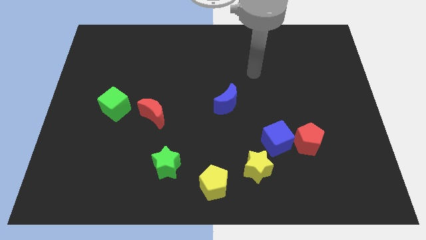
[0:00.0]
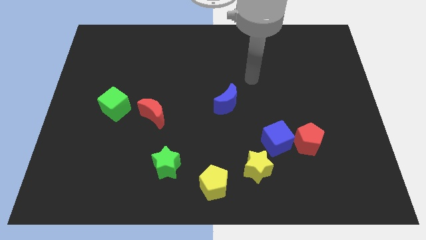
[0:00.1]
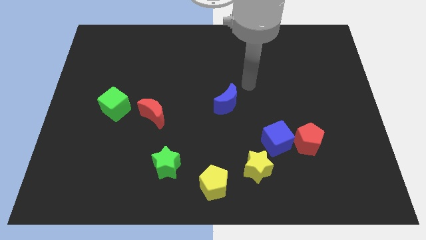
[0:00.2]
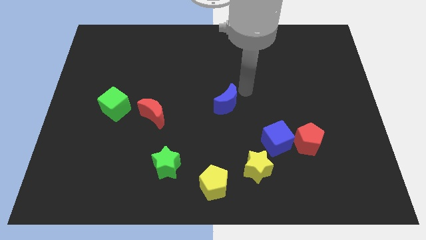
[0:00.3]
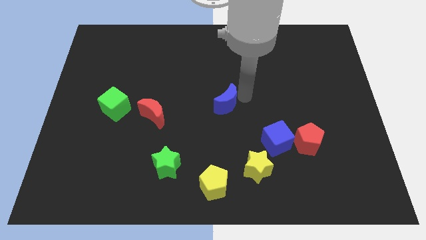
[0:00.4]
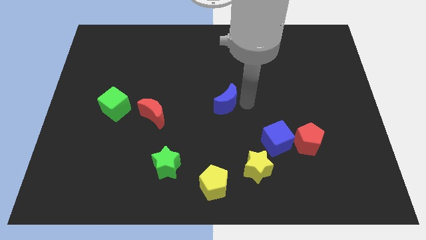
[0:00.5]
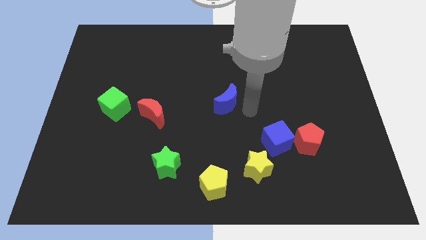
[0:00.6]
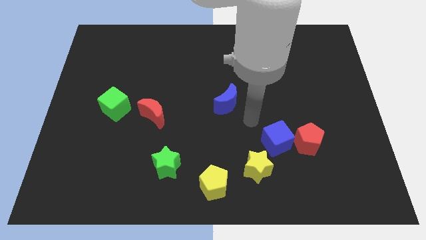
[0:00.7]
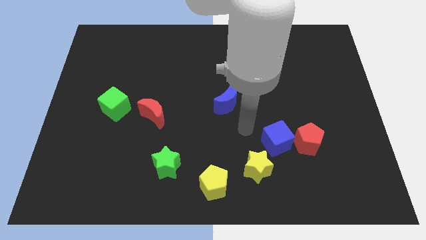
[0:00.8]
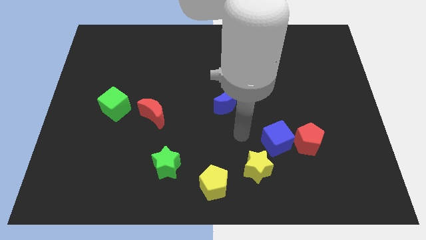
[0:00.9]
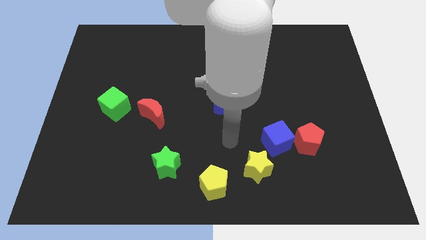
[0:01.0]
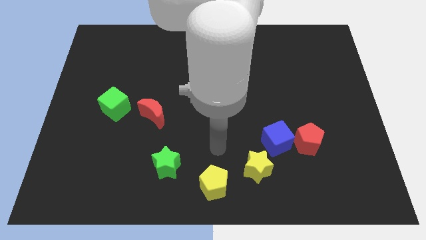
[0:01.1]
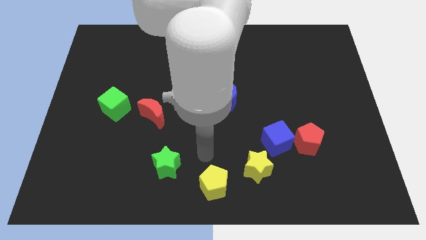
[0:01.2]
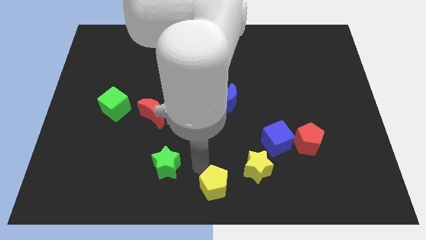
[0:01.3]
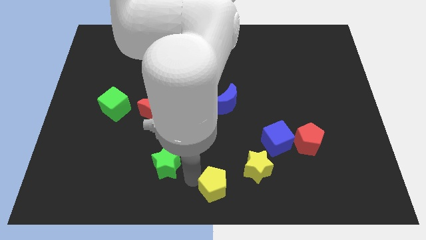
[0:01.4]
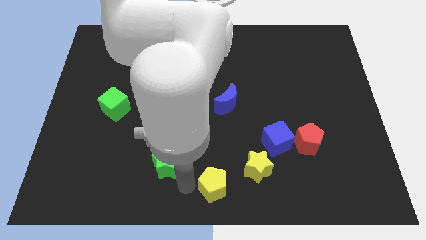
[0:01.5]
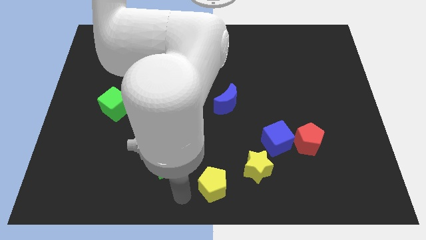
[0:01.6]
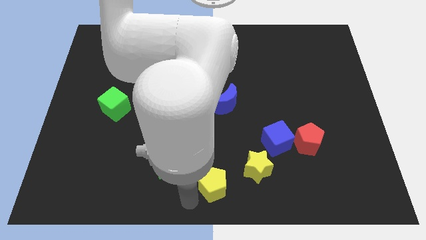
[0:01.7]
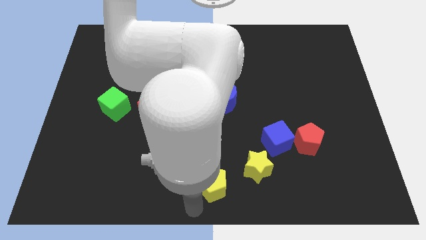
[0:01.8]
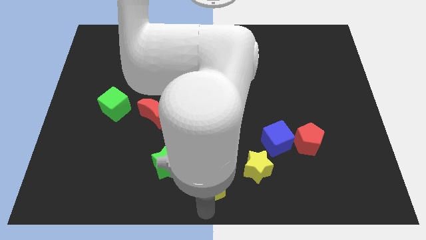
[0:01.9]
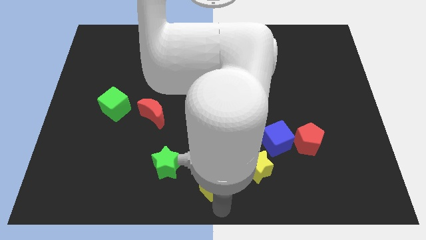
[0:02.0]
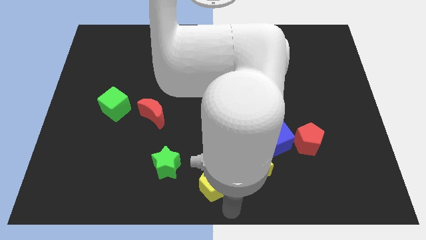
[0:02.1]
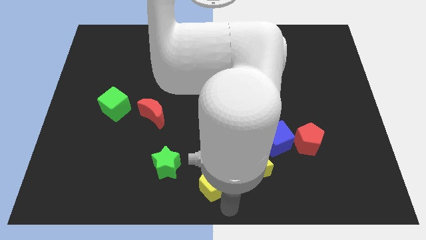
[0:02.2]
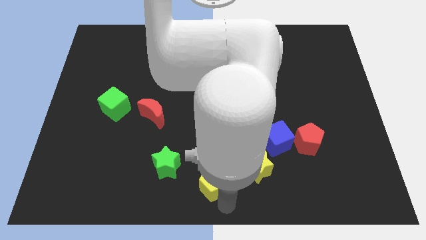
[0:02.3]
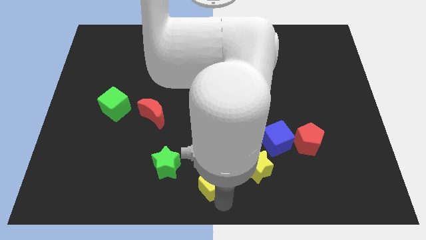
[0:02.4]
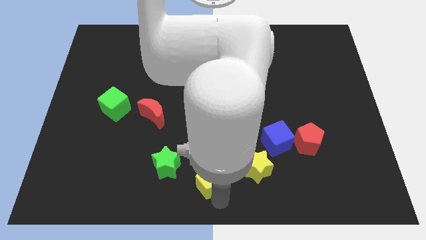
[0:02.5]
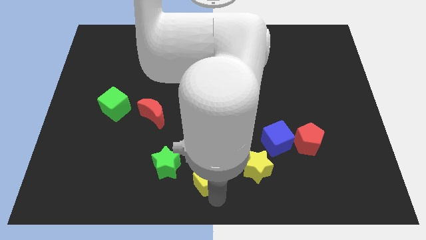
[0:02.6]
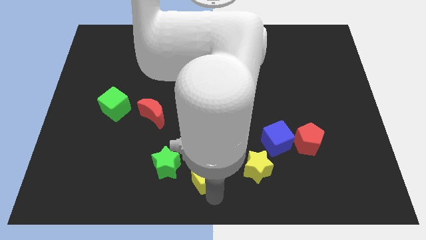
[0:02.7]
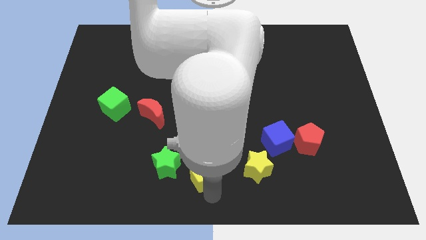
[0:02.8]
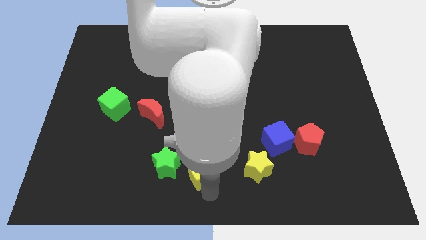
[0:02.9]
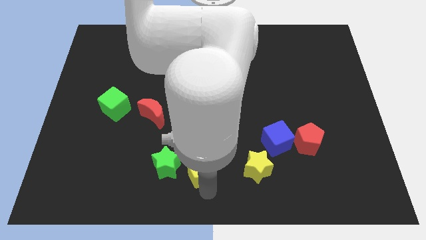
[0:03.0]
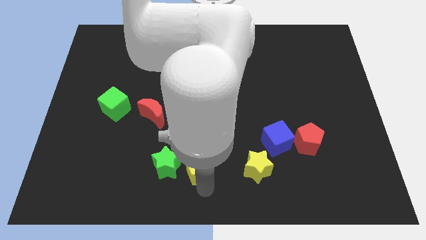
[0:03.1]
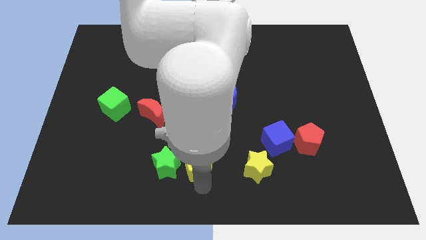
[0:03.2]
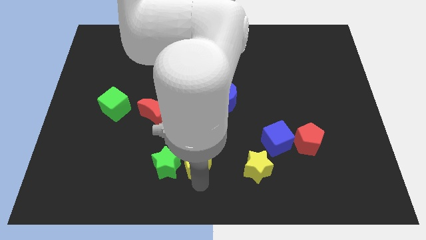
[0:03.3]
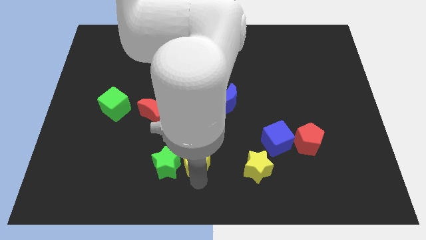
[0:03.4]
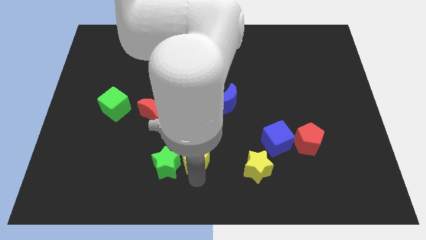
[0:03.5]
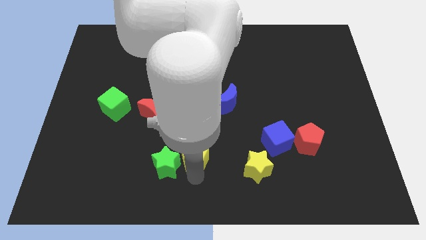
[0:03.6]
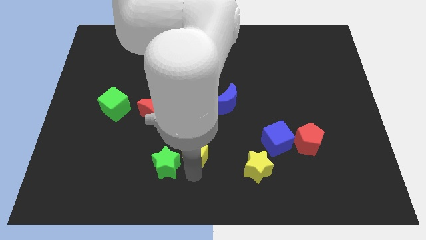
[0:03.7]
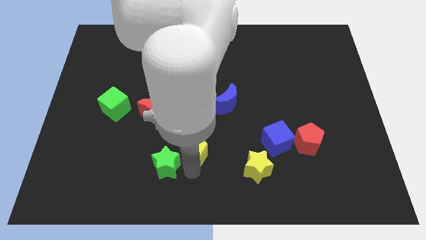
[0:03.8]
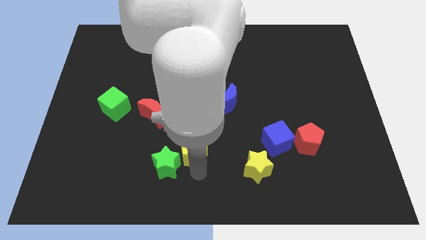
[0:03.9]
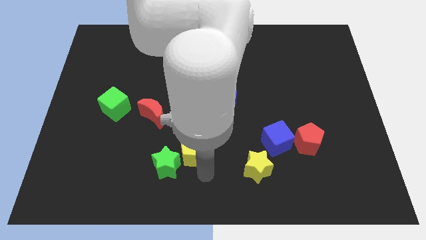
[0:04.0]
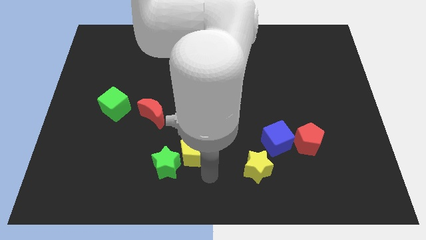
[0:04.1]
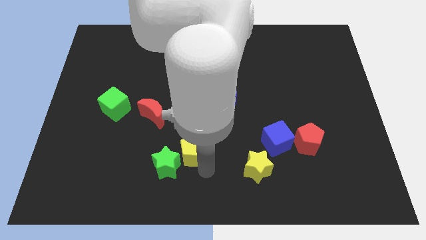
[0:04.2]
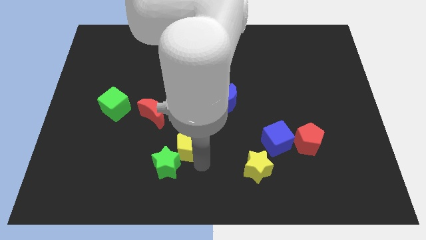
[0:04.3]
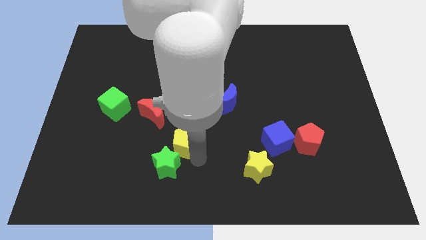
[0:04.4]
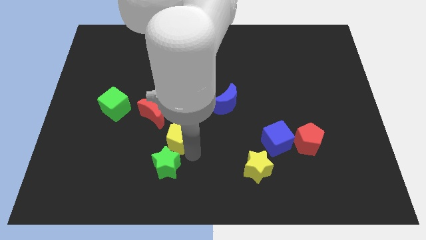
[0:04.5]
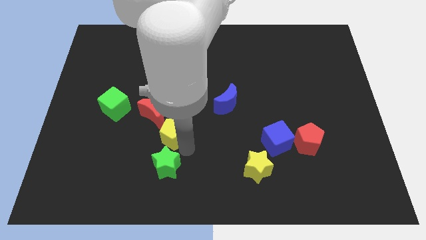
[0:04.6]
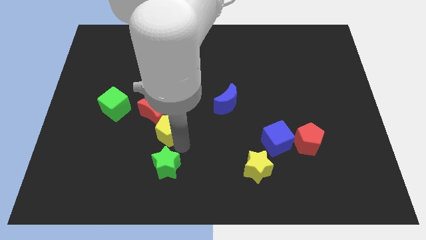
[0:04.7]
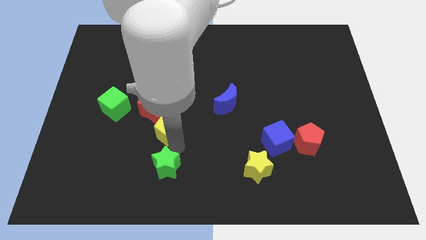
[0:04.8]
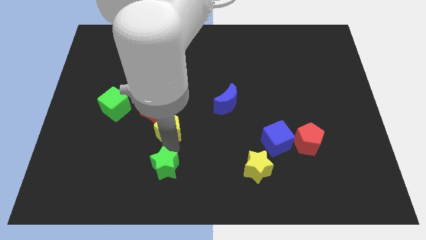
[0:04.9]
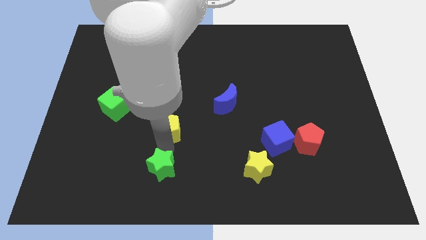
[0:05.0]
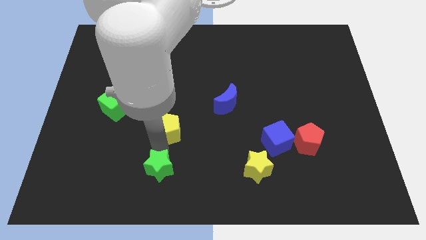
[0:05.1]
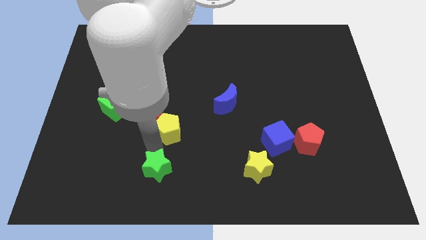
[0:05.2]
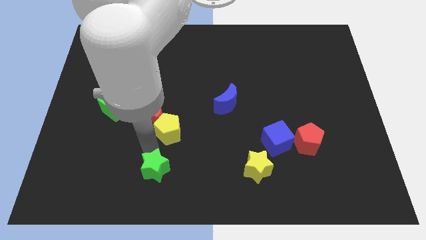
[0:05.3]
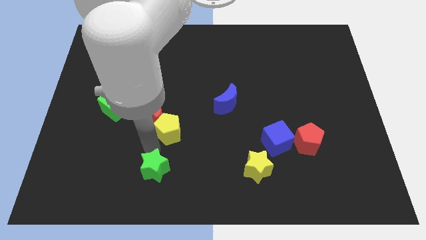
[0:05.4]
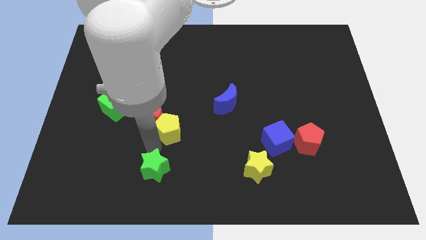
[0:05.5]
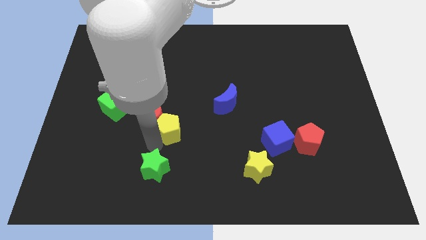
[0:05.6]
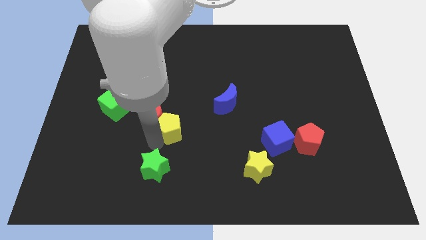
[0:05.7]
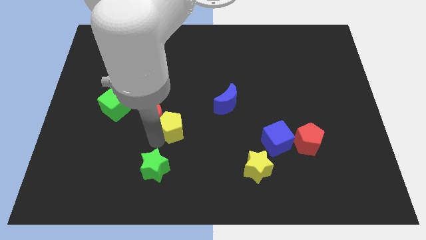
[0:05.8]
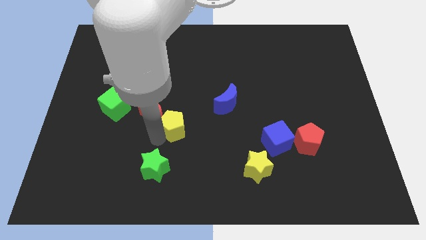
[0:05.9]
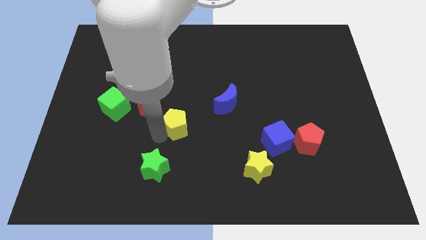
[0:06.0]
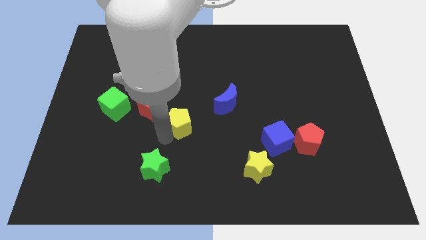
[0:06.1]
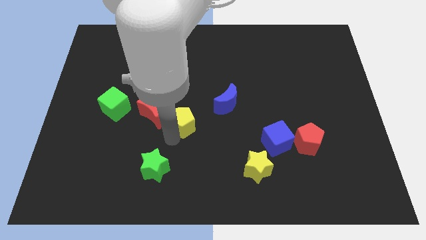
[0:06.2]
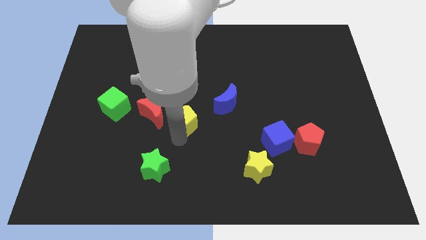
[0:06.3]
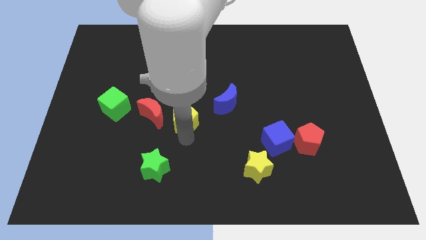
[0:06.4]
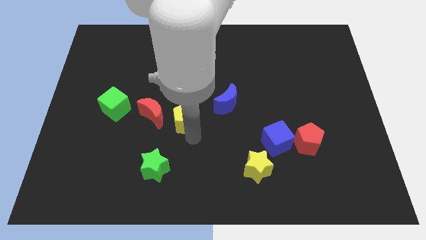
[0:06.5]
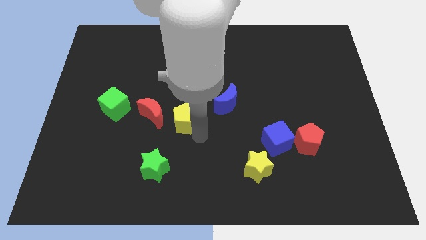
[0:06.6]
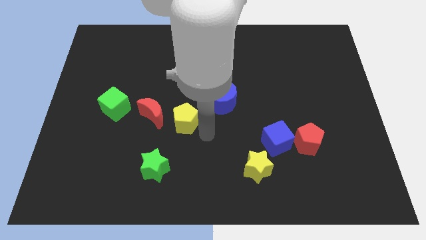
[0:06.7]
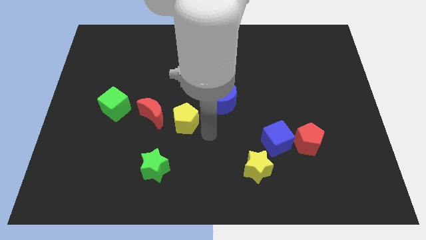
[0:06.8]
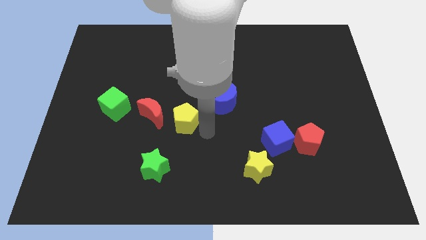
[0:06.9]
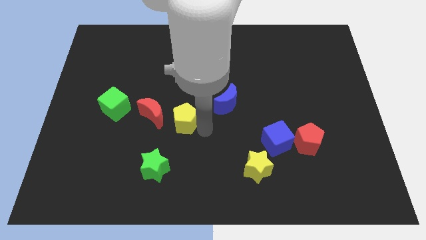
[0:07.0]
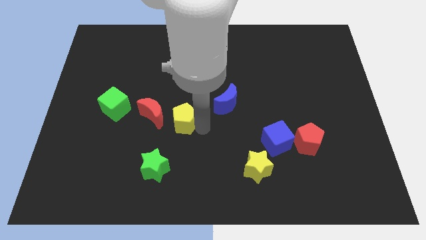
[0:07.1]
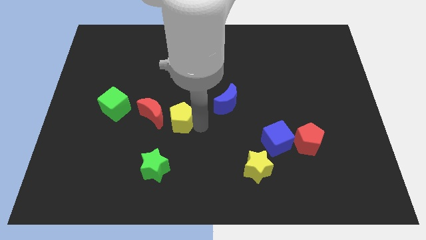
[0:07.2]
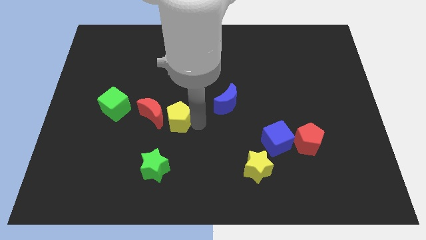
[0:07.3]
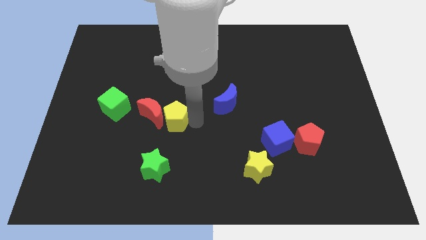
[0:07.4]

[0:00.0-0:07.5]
slide the yellow pentagon right of the green cube
